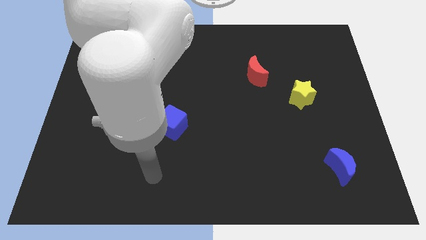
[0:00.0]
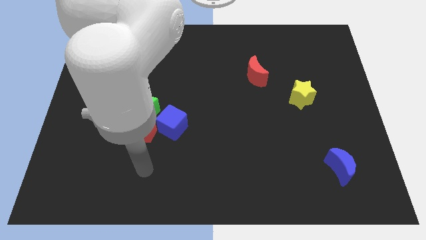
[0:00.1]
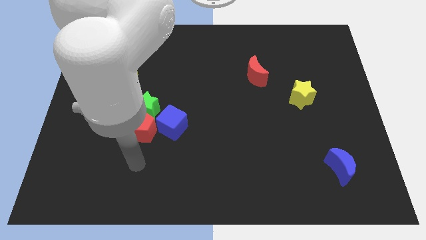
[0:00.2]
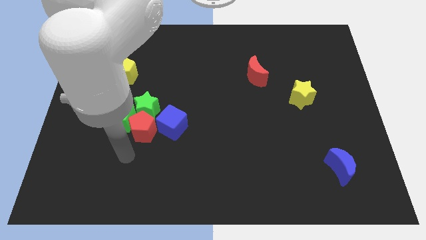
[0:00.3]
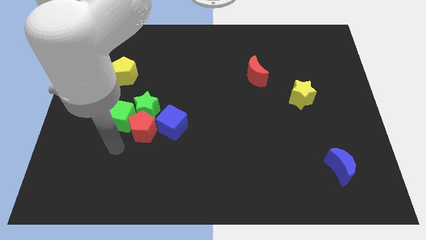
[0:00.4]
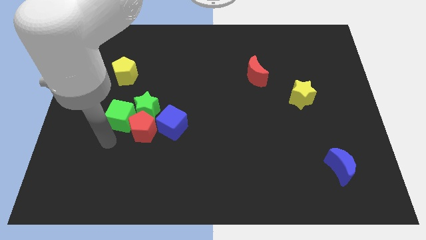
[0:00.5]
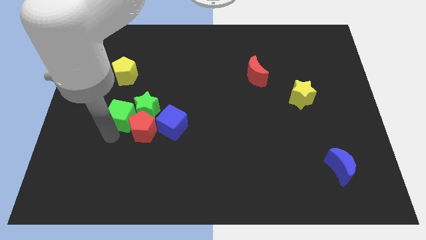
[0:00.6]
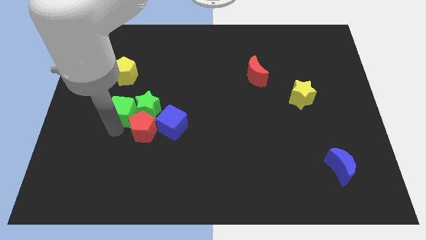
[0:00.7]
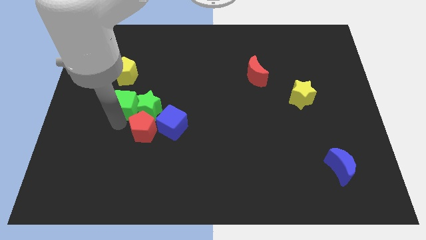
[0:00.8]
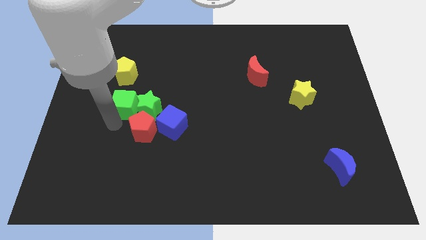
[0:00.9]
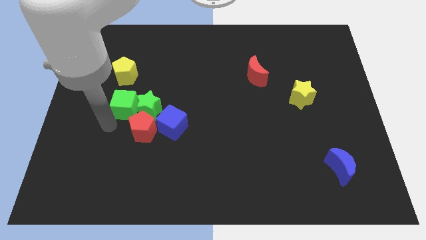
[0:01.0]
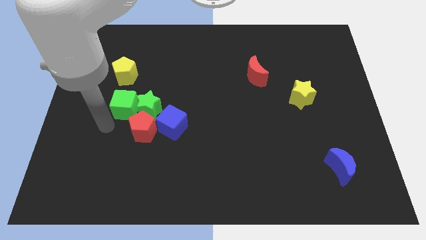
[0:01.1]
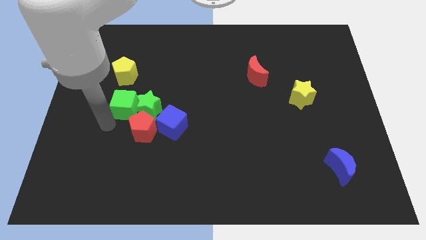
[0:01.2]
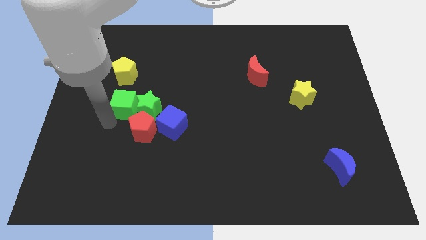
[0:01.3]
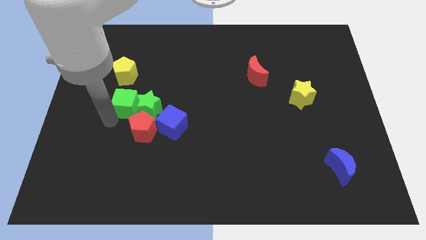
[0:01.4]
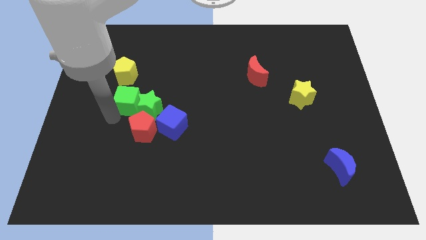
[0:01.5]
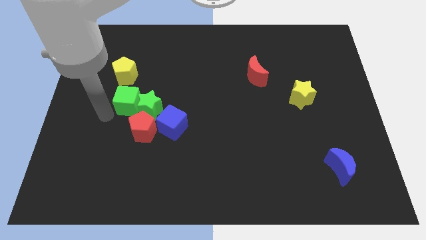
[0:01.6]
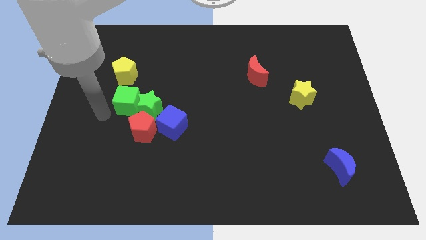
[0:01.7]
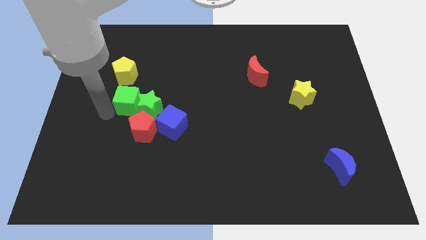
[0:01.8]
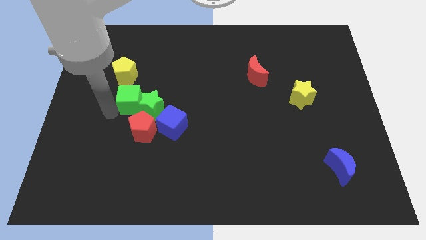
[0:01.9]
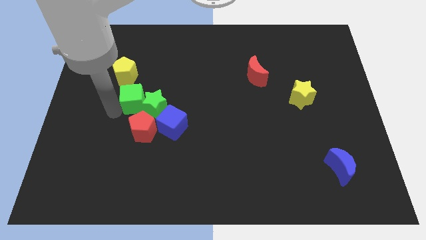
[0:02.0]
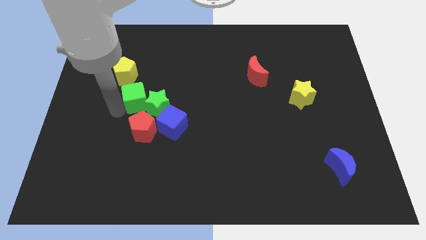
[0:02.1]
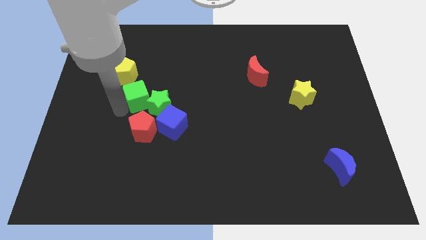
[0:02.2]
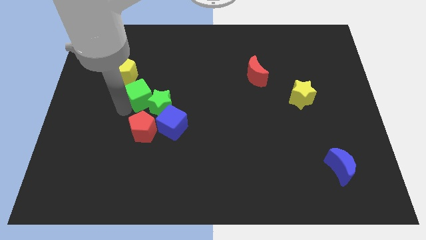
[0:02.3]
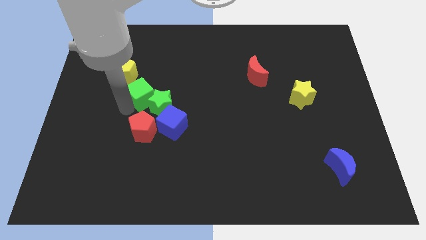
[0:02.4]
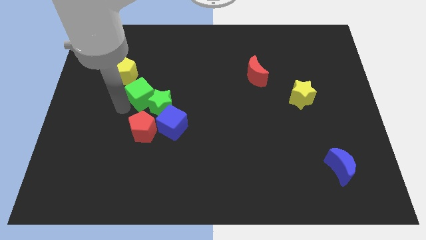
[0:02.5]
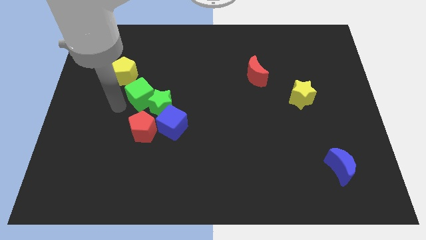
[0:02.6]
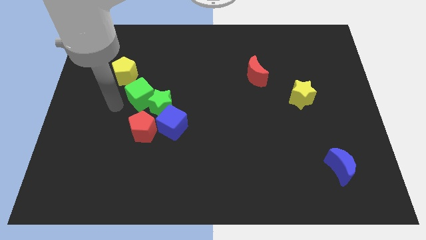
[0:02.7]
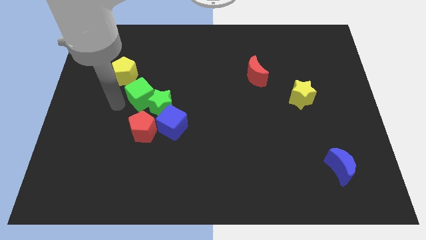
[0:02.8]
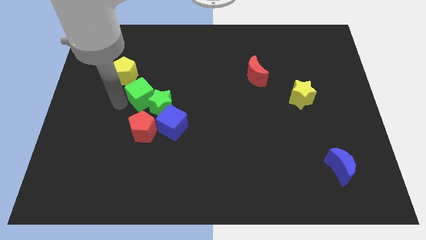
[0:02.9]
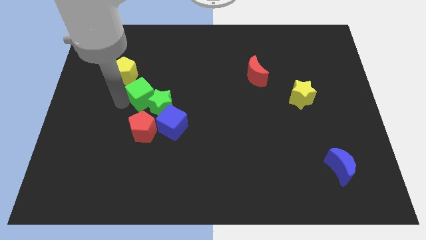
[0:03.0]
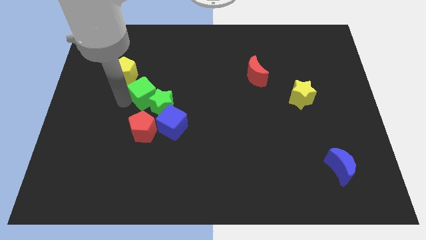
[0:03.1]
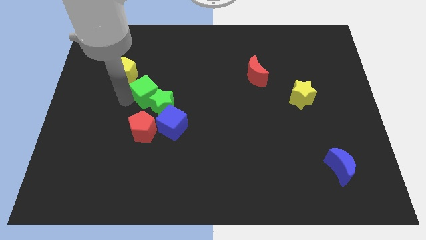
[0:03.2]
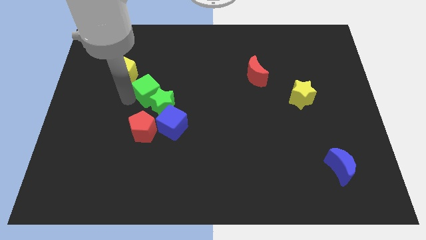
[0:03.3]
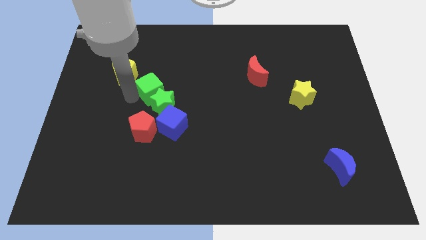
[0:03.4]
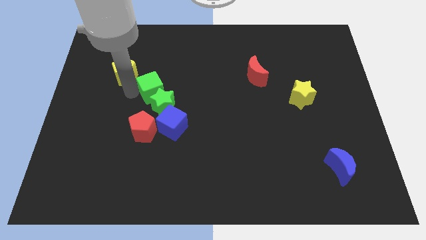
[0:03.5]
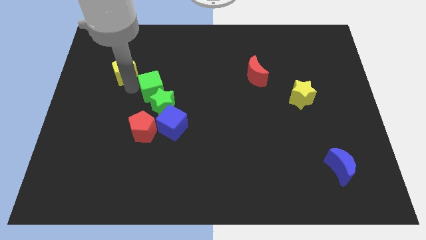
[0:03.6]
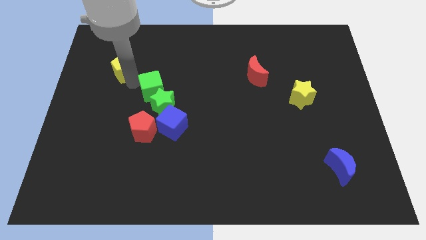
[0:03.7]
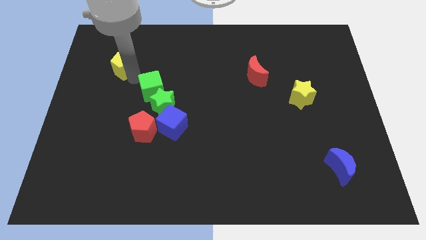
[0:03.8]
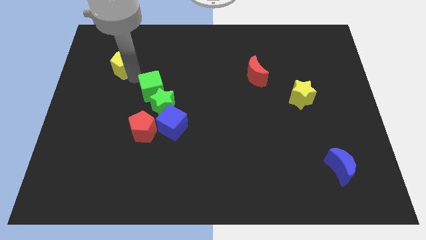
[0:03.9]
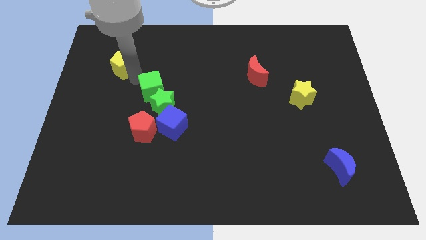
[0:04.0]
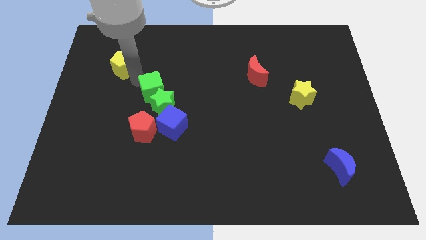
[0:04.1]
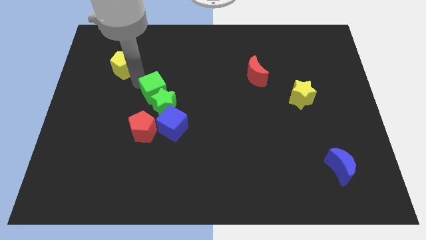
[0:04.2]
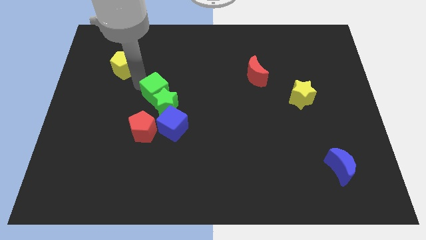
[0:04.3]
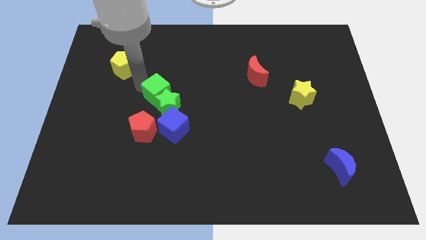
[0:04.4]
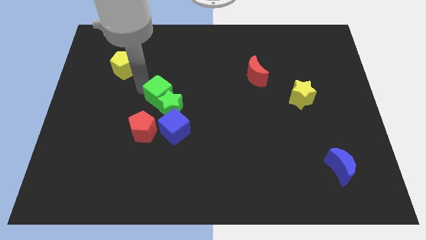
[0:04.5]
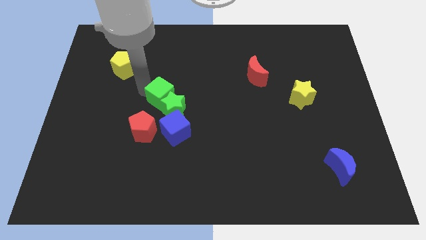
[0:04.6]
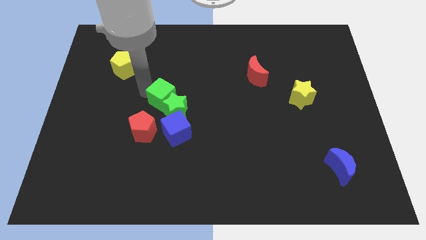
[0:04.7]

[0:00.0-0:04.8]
slightly slide the green cube to the right

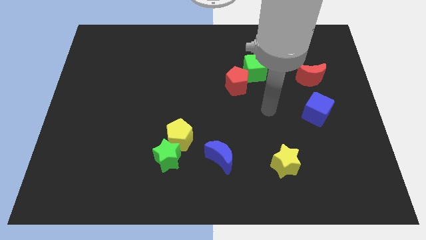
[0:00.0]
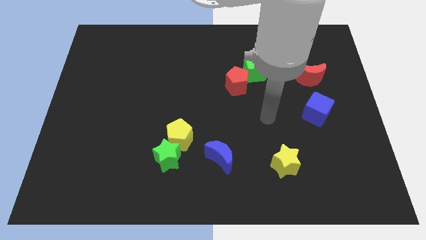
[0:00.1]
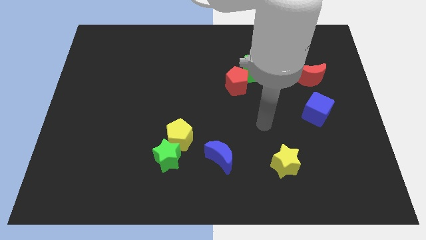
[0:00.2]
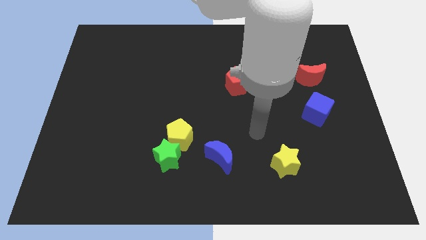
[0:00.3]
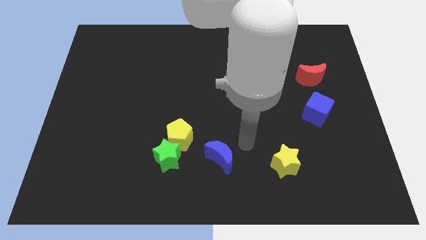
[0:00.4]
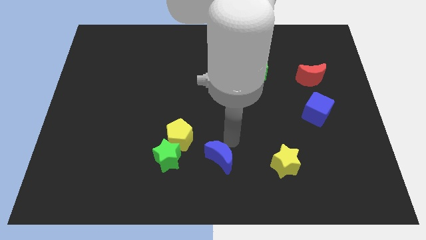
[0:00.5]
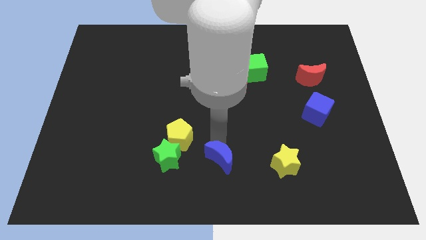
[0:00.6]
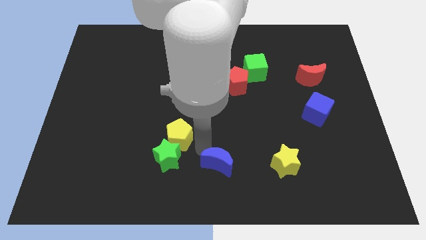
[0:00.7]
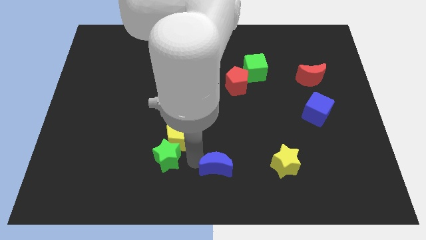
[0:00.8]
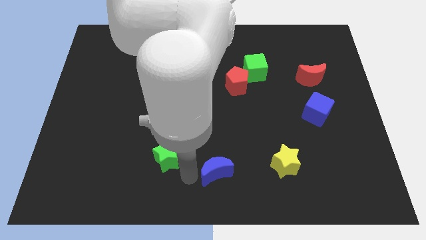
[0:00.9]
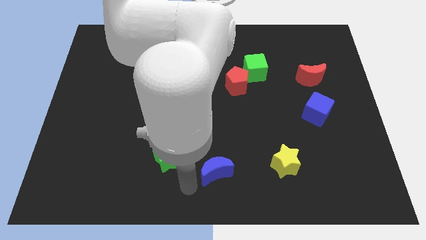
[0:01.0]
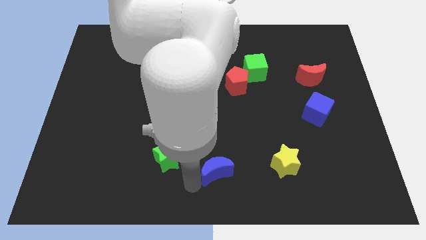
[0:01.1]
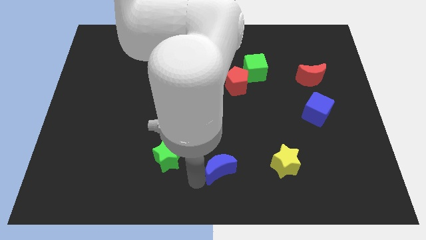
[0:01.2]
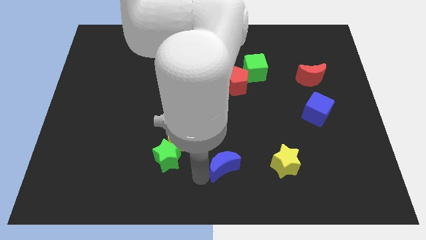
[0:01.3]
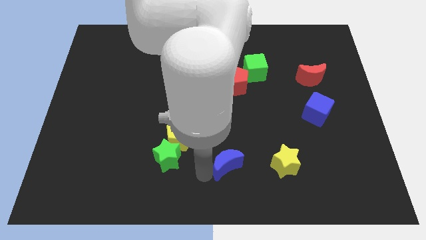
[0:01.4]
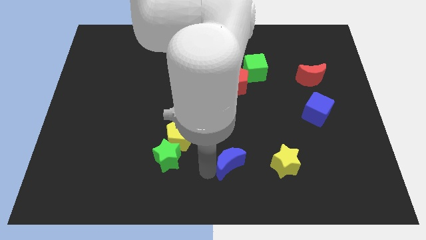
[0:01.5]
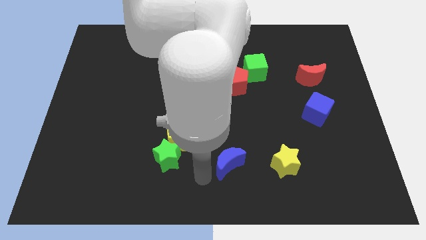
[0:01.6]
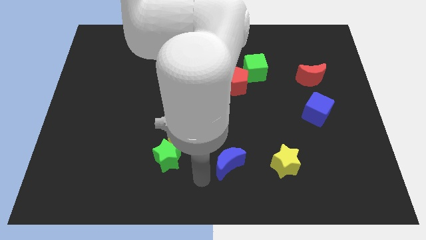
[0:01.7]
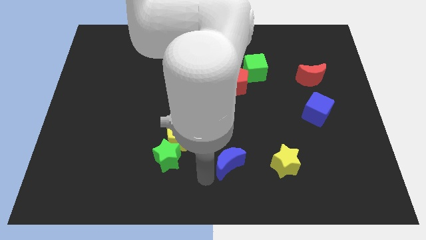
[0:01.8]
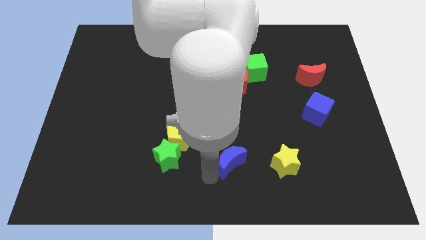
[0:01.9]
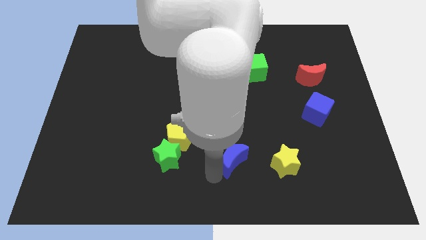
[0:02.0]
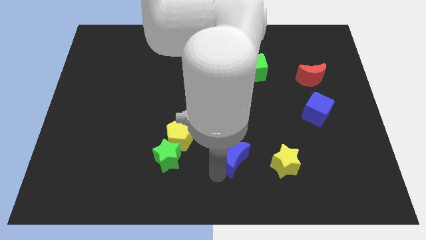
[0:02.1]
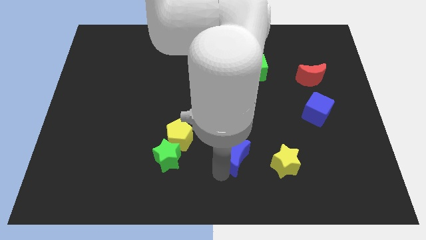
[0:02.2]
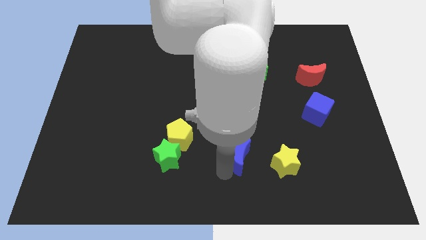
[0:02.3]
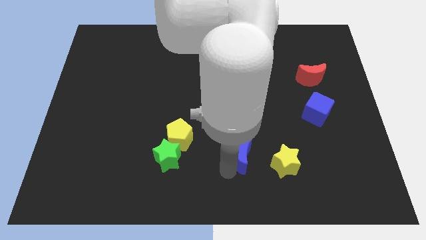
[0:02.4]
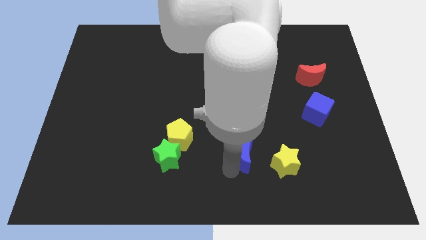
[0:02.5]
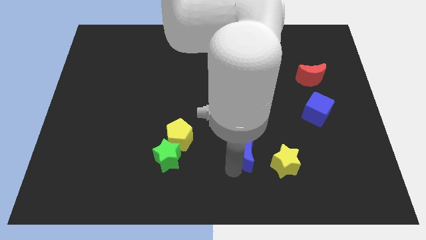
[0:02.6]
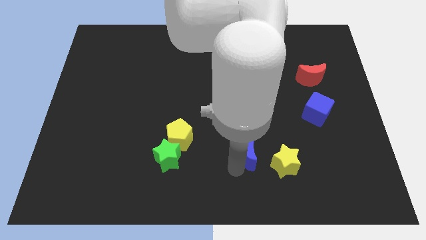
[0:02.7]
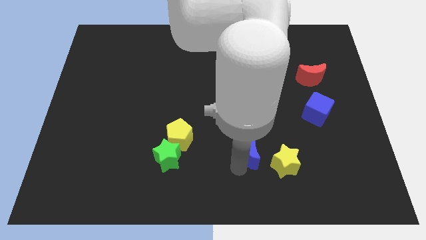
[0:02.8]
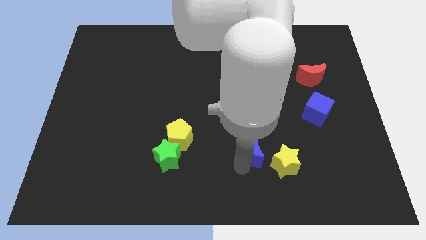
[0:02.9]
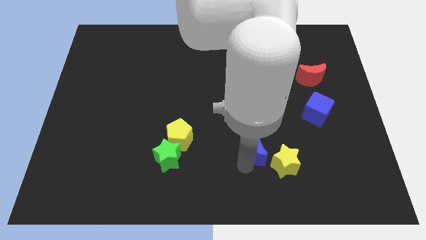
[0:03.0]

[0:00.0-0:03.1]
slightly move the blue moon to the right

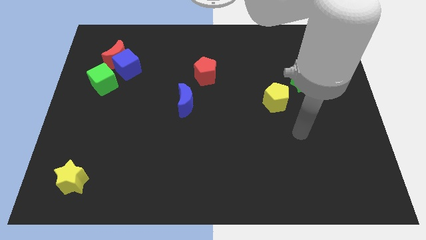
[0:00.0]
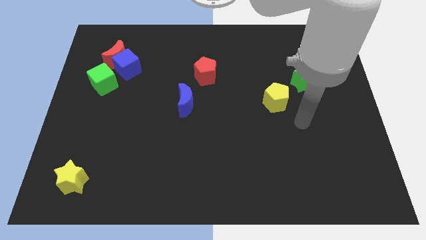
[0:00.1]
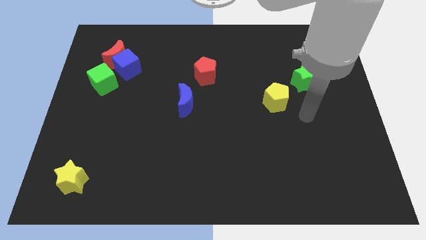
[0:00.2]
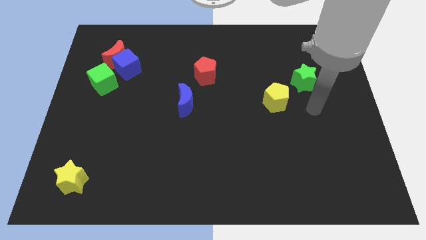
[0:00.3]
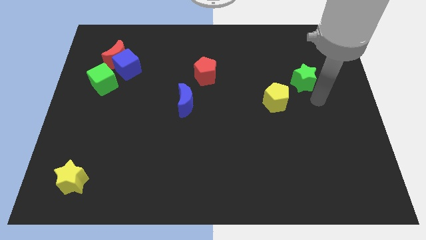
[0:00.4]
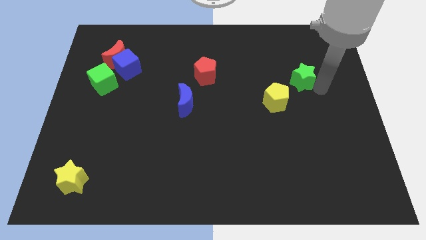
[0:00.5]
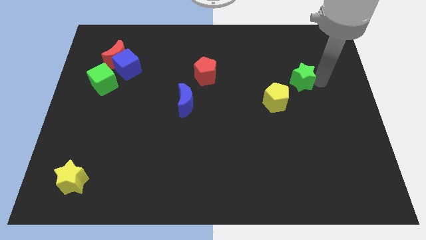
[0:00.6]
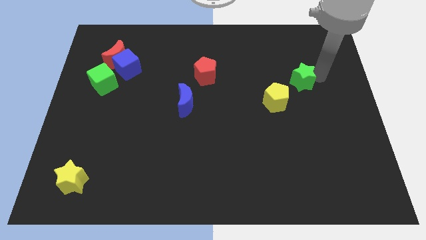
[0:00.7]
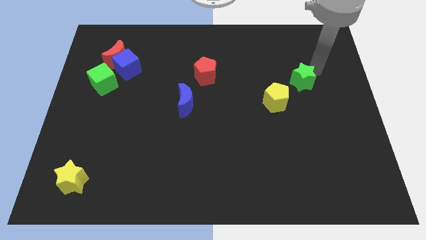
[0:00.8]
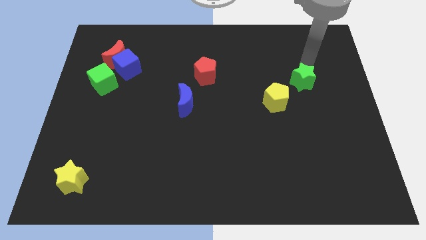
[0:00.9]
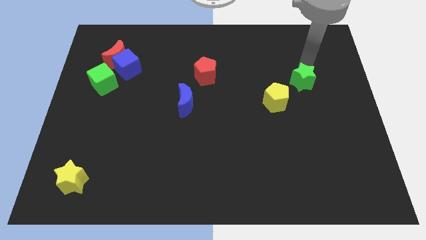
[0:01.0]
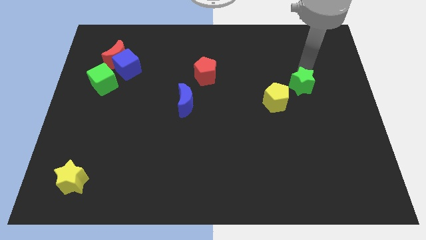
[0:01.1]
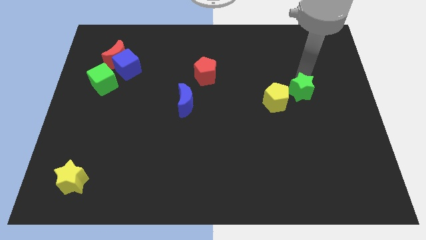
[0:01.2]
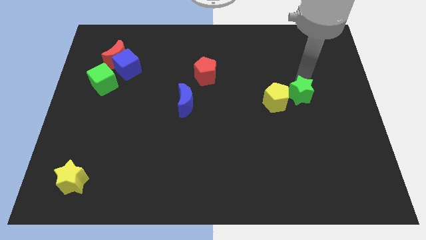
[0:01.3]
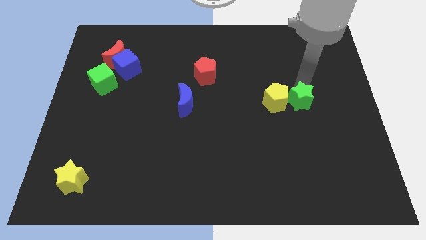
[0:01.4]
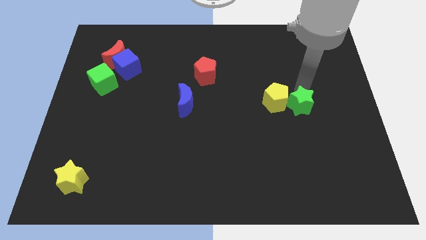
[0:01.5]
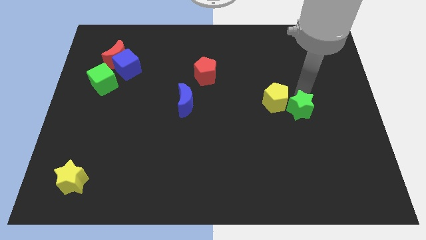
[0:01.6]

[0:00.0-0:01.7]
move the green star downwards and to the left slightly
